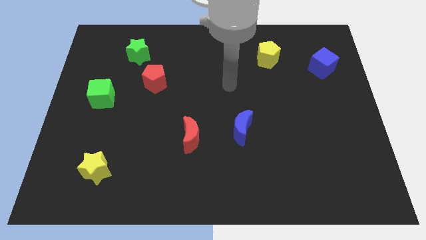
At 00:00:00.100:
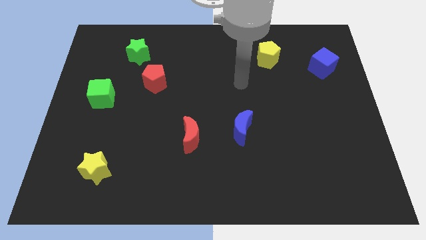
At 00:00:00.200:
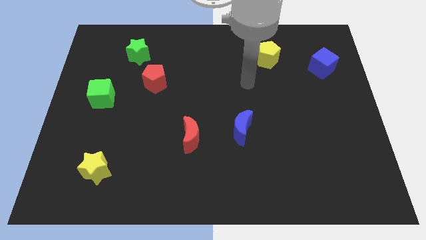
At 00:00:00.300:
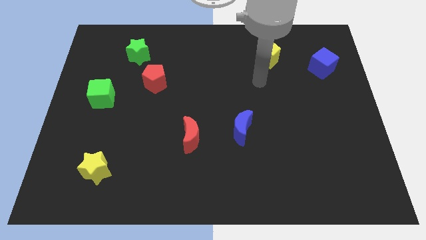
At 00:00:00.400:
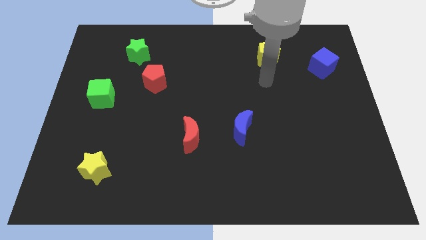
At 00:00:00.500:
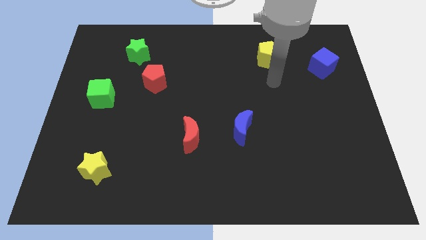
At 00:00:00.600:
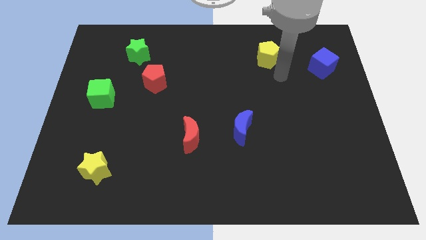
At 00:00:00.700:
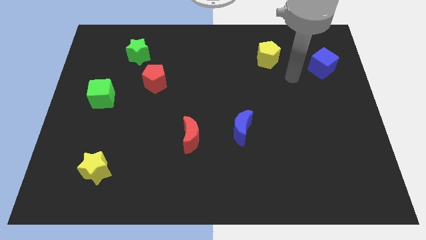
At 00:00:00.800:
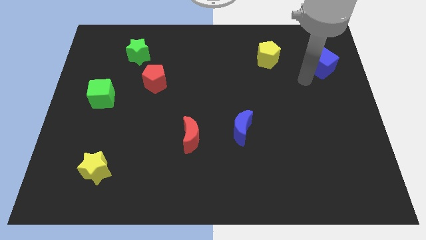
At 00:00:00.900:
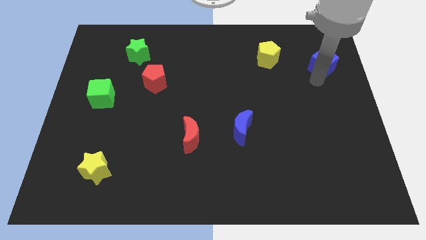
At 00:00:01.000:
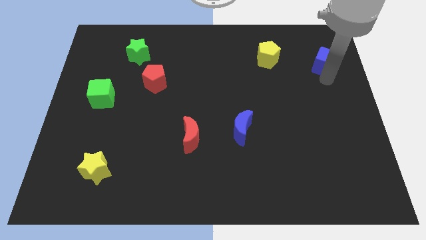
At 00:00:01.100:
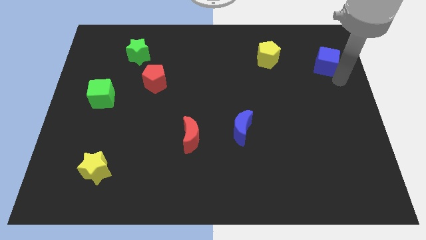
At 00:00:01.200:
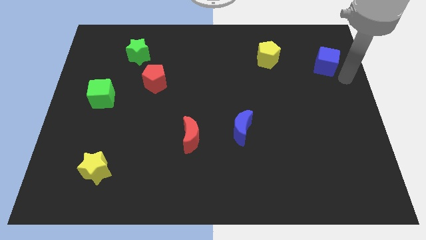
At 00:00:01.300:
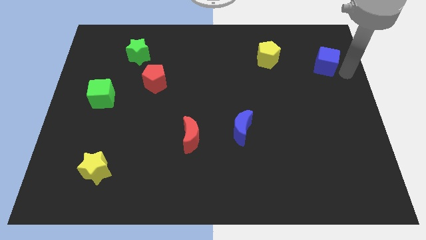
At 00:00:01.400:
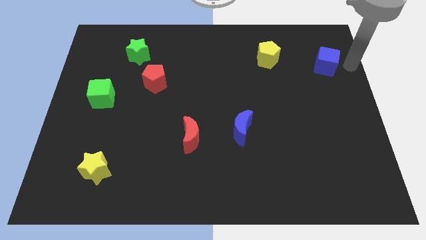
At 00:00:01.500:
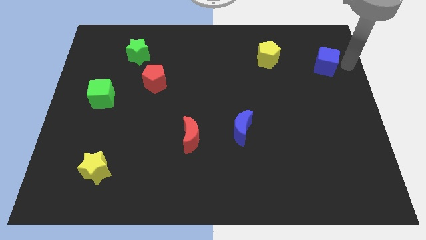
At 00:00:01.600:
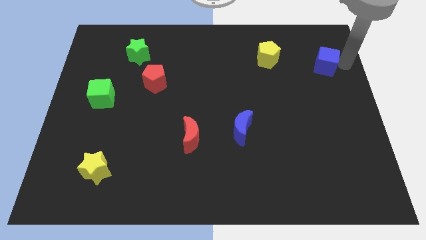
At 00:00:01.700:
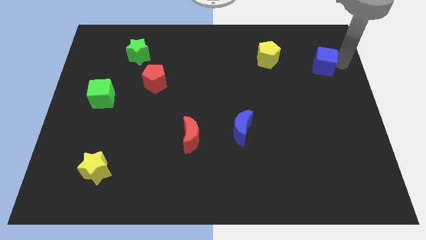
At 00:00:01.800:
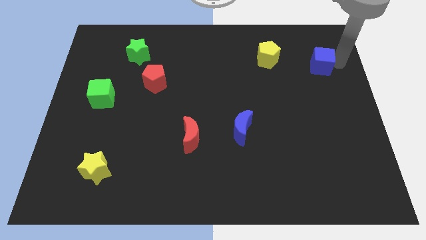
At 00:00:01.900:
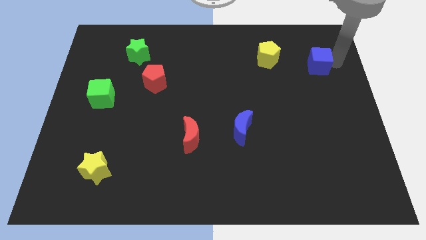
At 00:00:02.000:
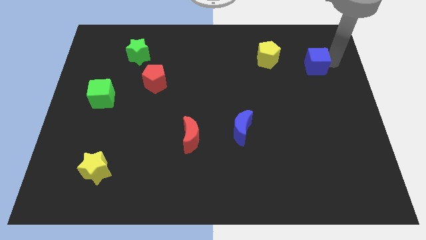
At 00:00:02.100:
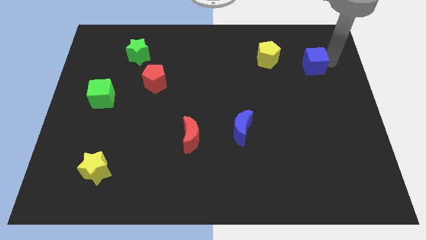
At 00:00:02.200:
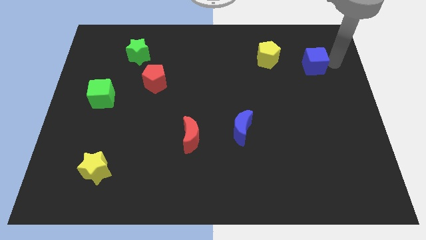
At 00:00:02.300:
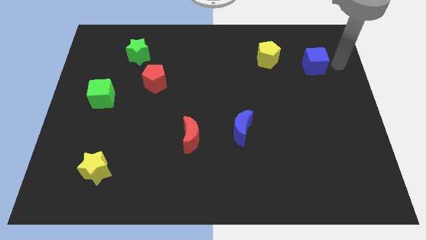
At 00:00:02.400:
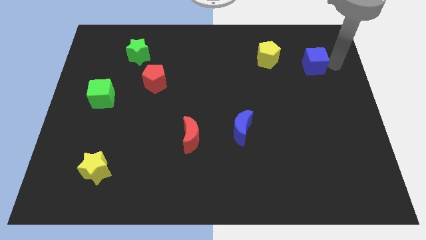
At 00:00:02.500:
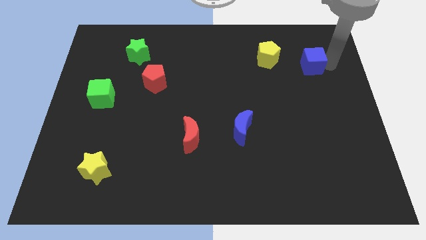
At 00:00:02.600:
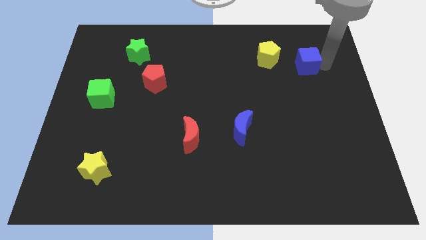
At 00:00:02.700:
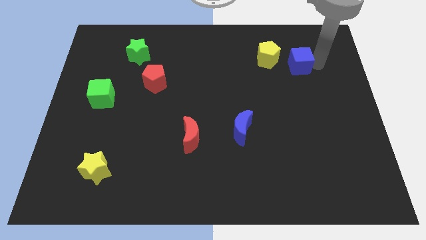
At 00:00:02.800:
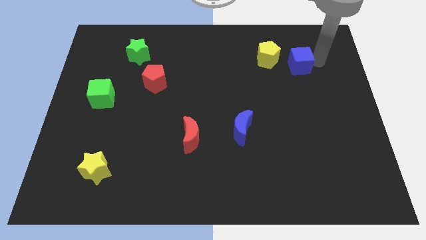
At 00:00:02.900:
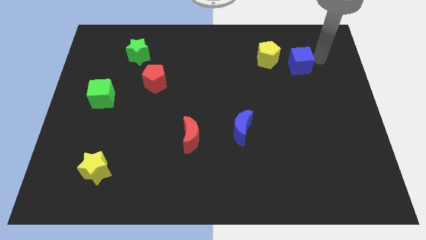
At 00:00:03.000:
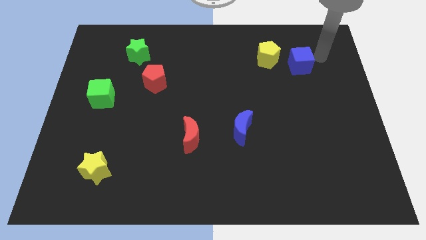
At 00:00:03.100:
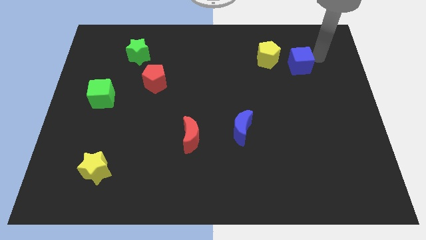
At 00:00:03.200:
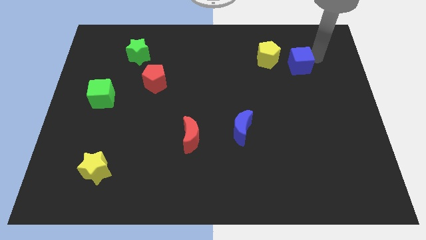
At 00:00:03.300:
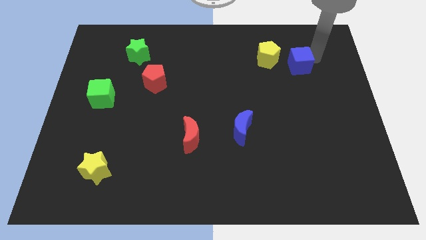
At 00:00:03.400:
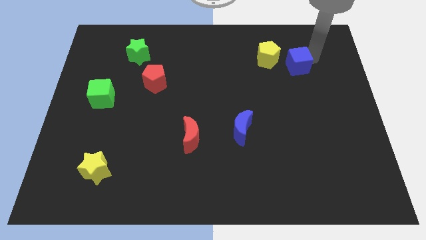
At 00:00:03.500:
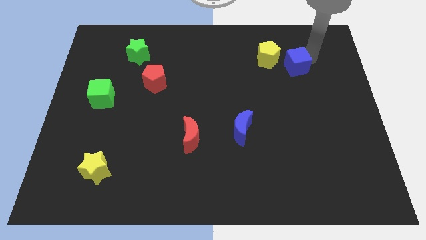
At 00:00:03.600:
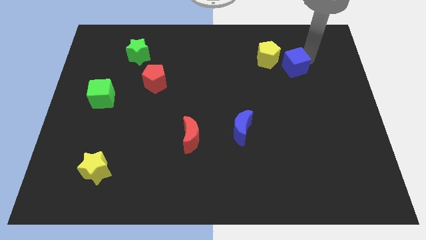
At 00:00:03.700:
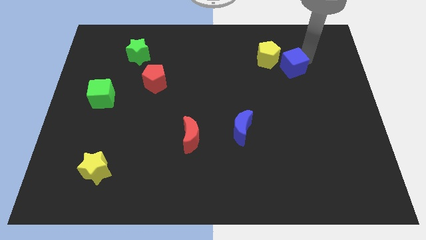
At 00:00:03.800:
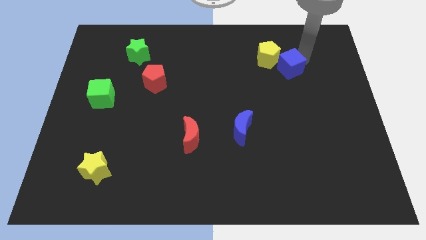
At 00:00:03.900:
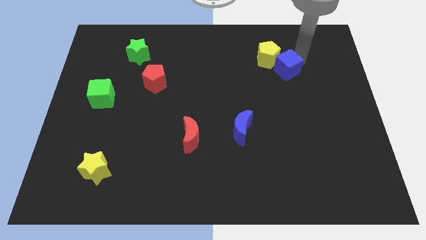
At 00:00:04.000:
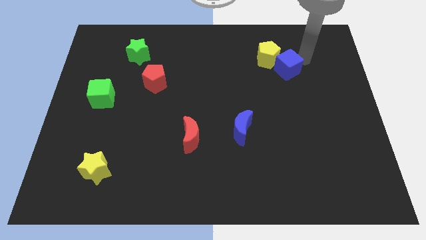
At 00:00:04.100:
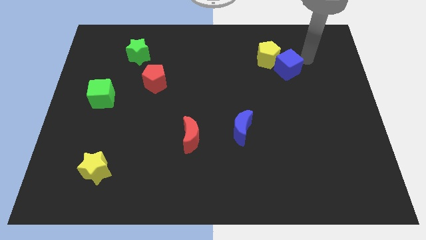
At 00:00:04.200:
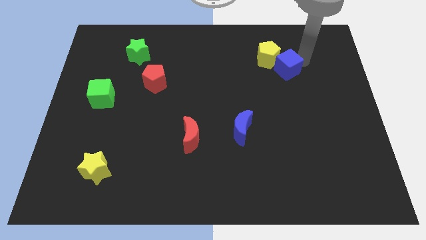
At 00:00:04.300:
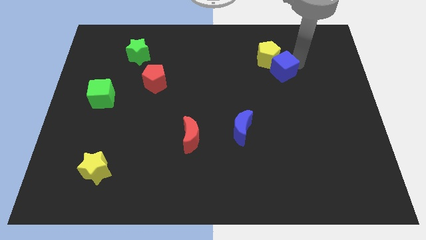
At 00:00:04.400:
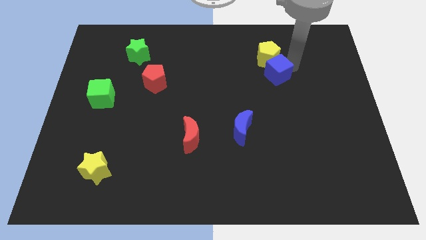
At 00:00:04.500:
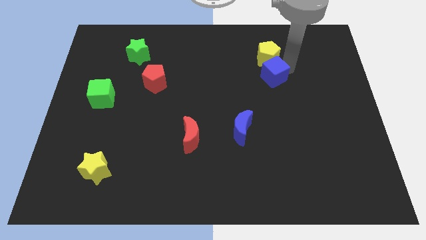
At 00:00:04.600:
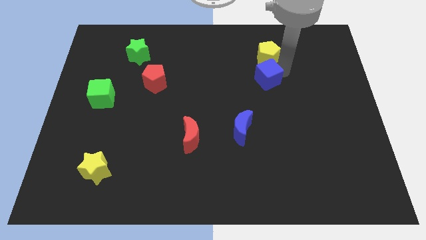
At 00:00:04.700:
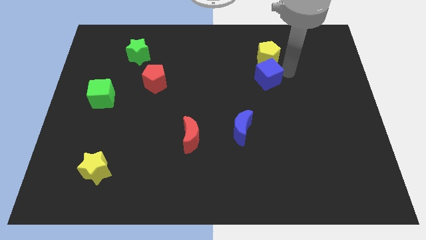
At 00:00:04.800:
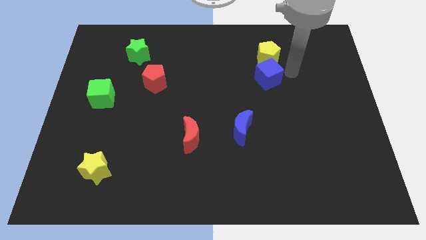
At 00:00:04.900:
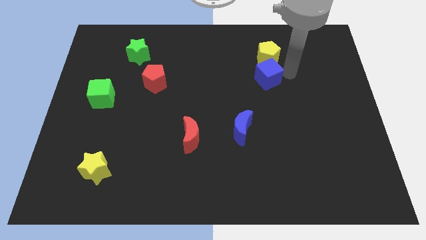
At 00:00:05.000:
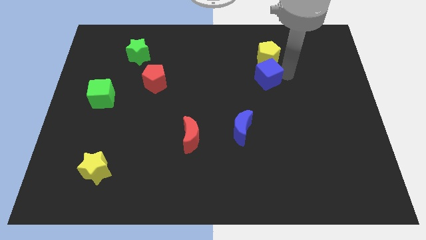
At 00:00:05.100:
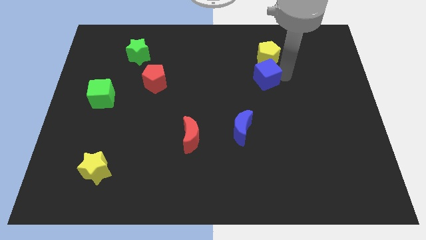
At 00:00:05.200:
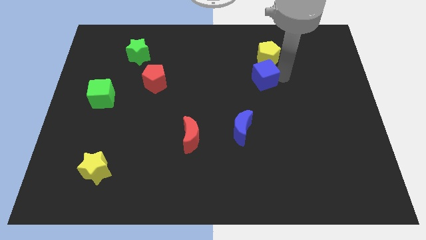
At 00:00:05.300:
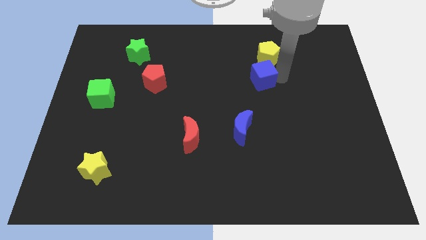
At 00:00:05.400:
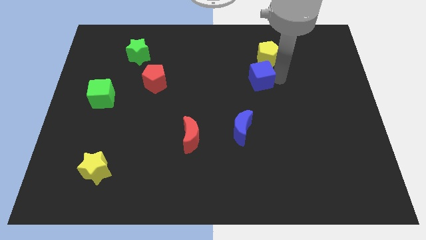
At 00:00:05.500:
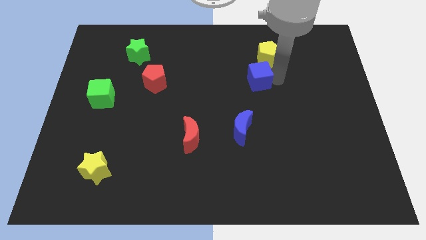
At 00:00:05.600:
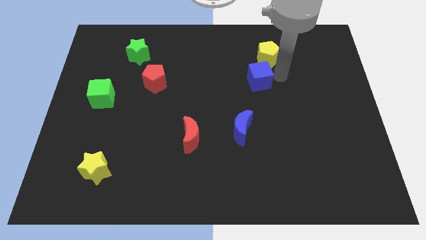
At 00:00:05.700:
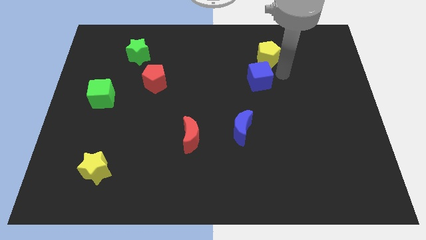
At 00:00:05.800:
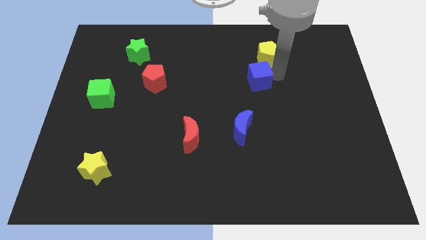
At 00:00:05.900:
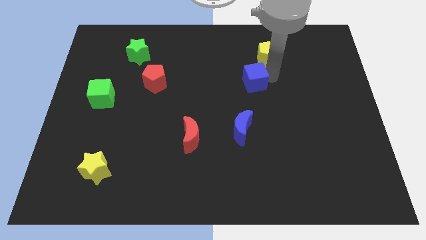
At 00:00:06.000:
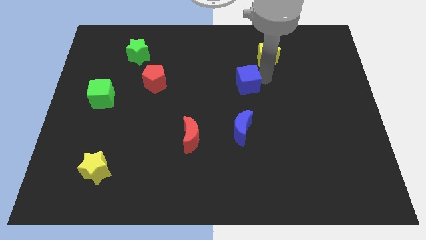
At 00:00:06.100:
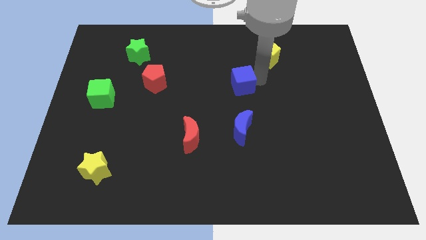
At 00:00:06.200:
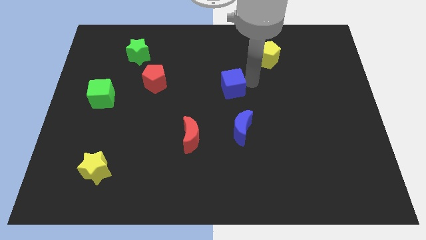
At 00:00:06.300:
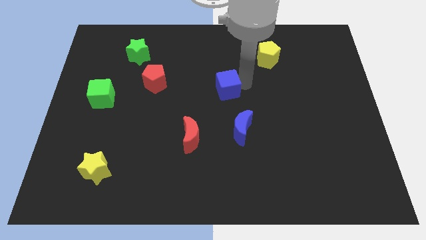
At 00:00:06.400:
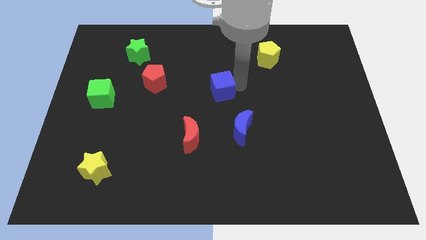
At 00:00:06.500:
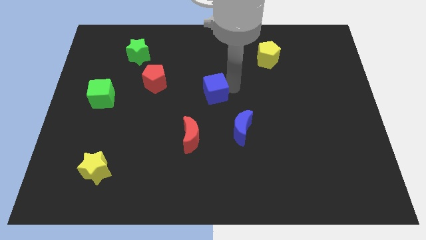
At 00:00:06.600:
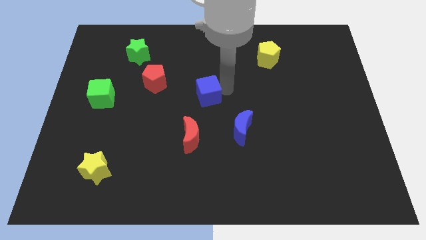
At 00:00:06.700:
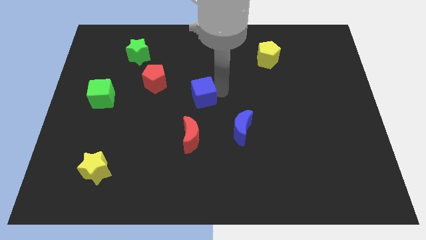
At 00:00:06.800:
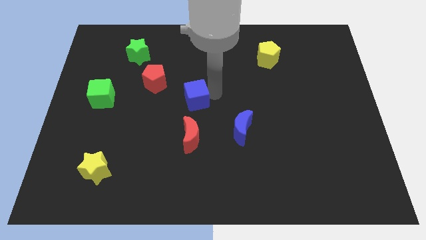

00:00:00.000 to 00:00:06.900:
move the blue cube diagonally down and to the right of the red pentagon
